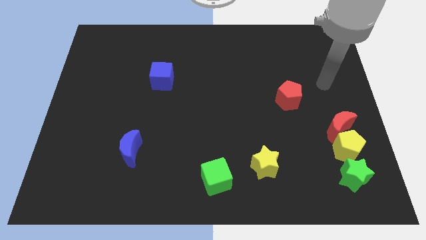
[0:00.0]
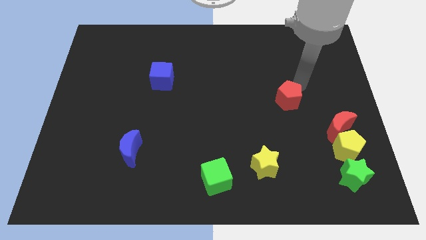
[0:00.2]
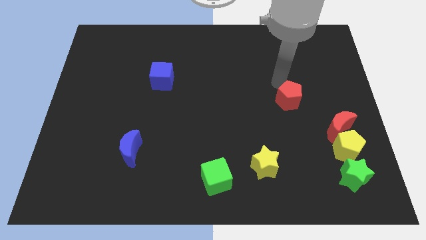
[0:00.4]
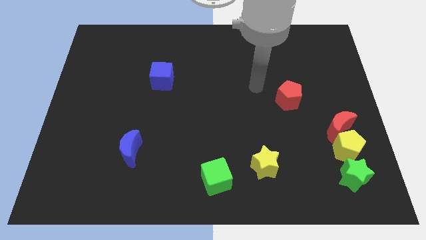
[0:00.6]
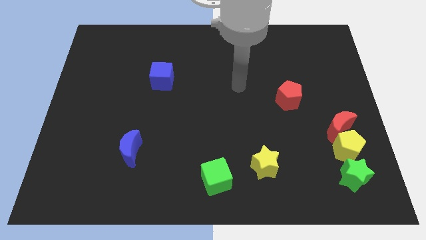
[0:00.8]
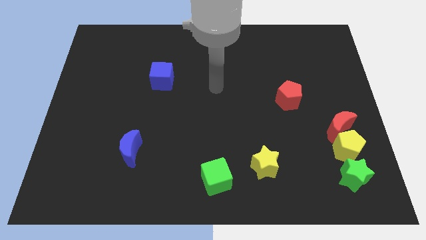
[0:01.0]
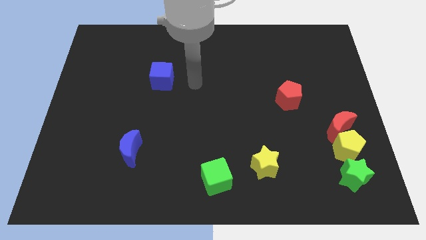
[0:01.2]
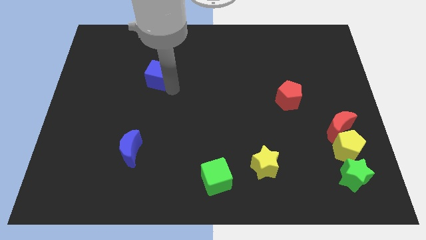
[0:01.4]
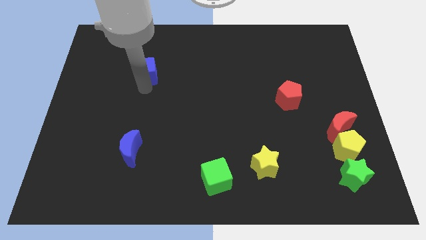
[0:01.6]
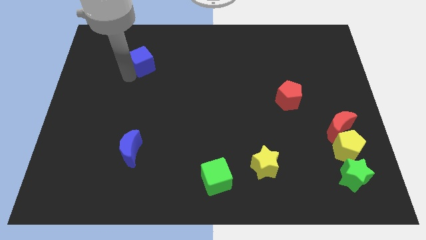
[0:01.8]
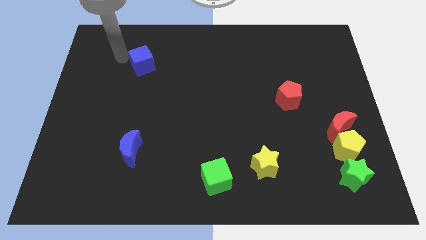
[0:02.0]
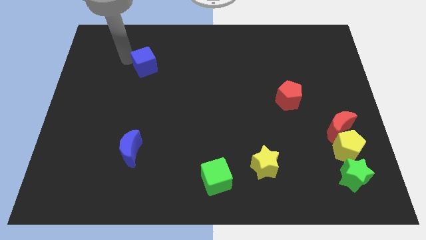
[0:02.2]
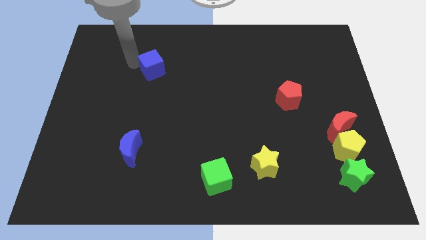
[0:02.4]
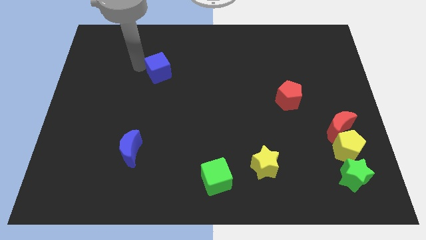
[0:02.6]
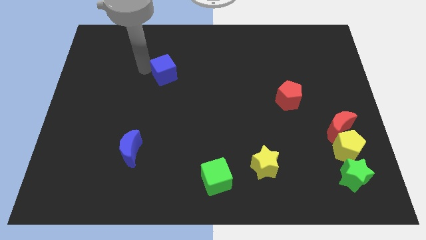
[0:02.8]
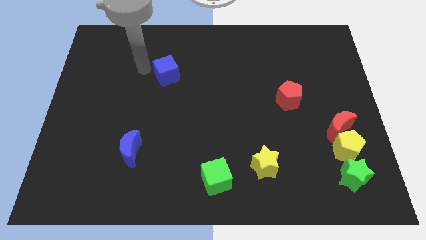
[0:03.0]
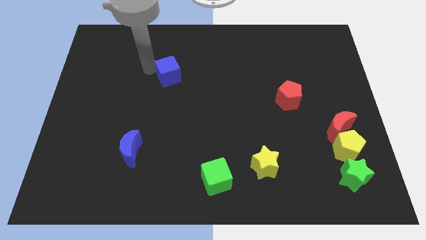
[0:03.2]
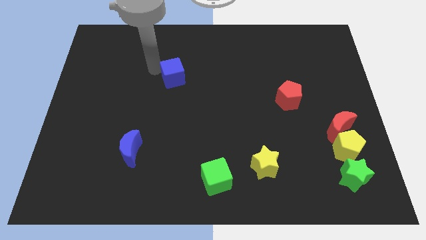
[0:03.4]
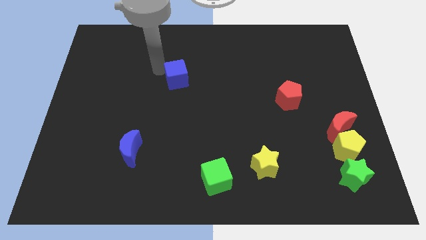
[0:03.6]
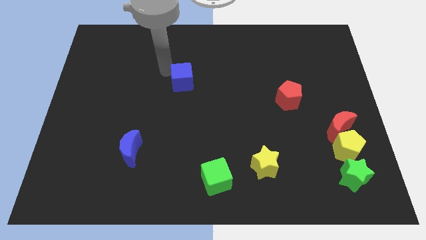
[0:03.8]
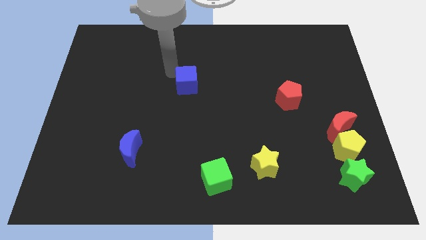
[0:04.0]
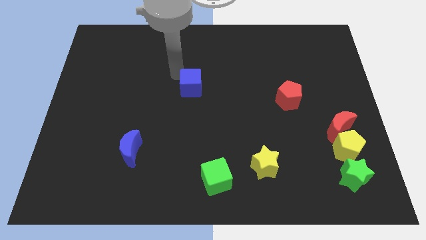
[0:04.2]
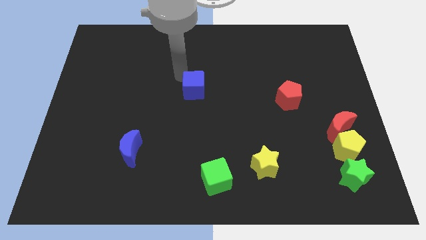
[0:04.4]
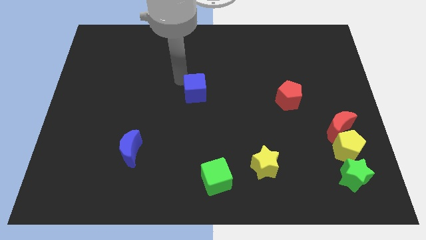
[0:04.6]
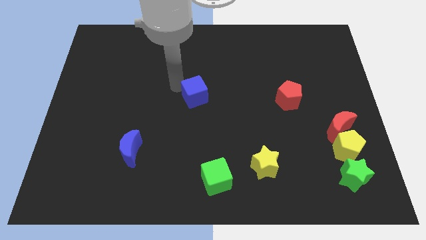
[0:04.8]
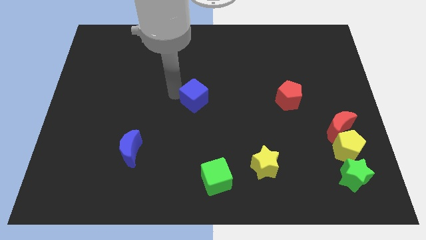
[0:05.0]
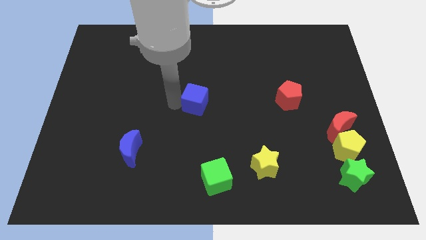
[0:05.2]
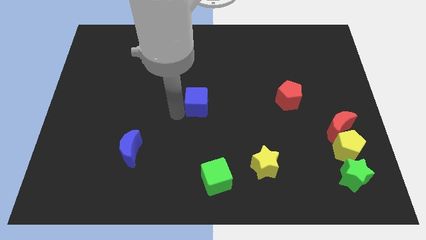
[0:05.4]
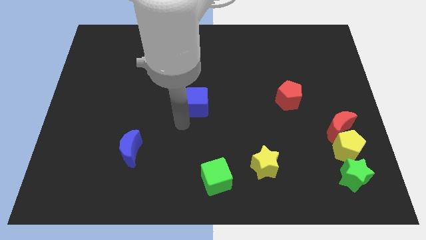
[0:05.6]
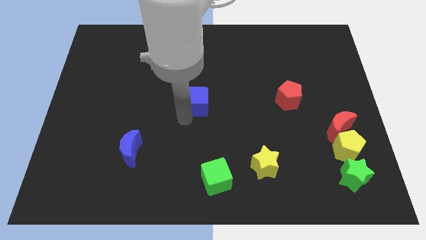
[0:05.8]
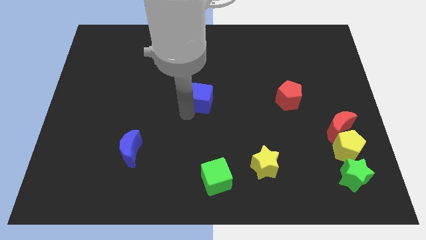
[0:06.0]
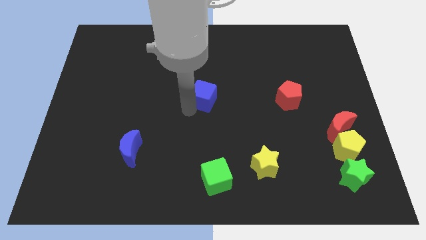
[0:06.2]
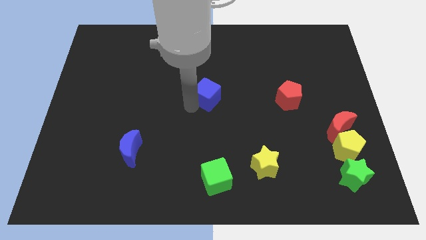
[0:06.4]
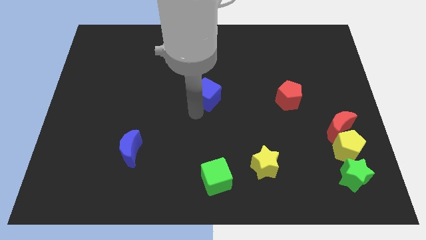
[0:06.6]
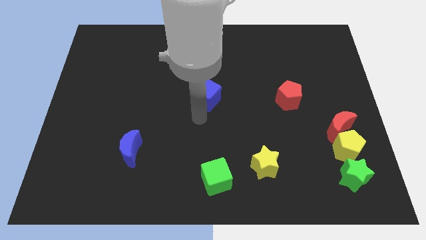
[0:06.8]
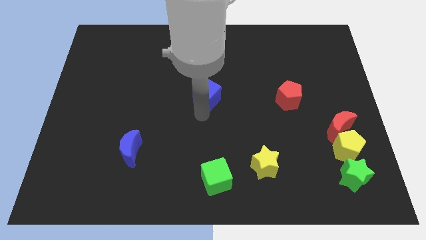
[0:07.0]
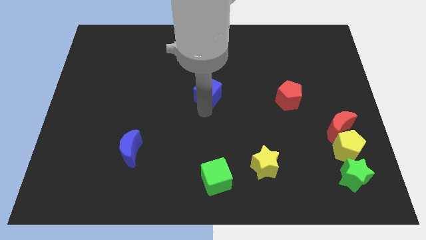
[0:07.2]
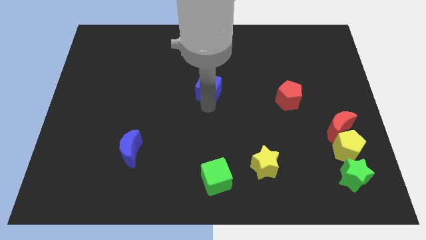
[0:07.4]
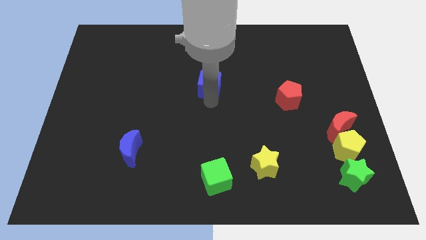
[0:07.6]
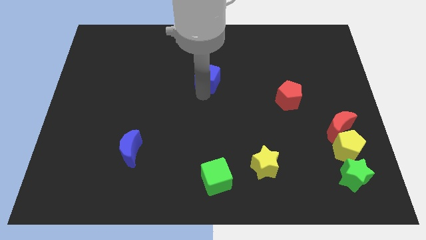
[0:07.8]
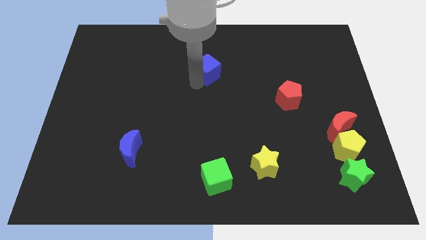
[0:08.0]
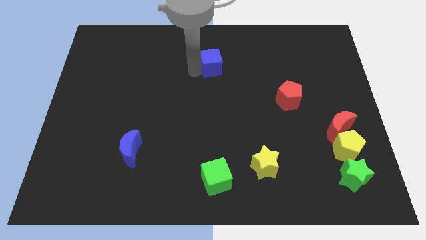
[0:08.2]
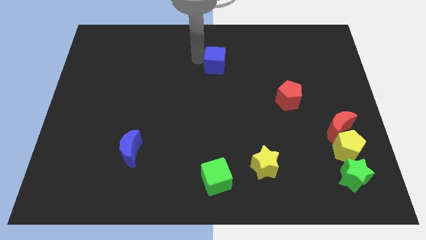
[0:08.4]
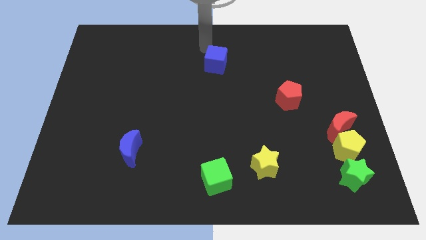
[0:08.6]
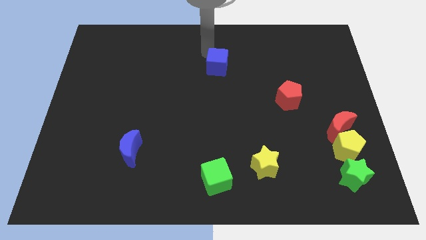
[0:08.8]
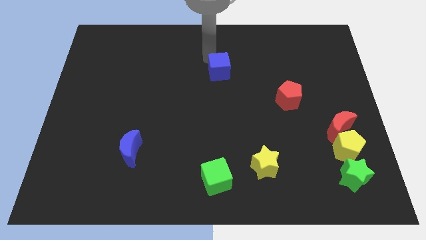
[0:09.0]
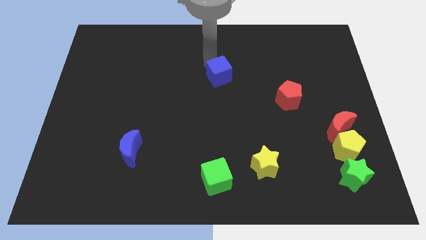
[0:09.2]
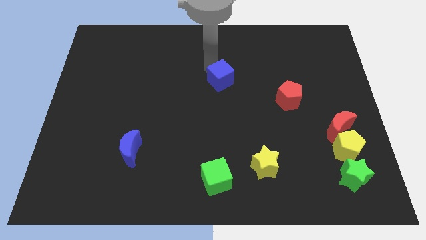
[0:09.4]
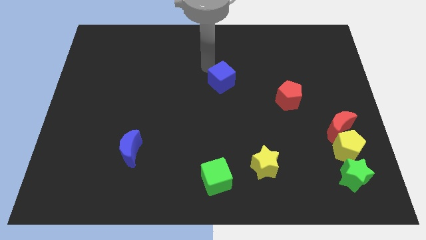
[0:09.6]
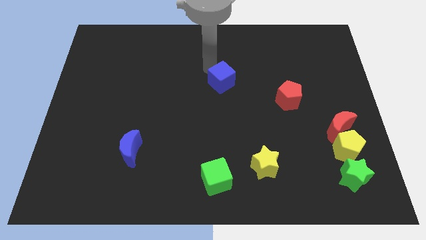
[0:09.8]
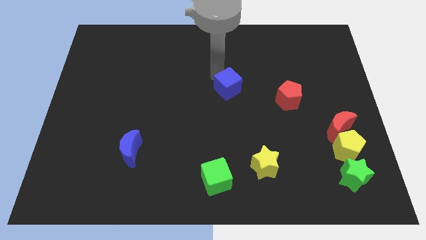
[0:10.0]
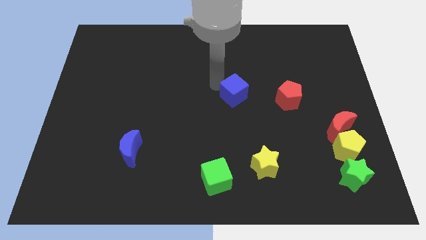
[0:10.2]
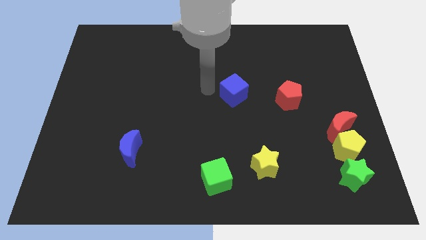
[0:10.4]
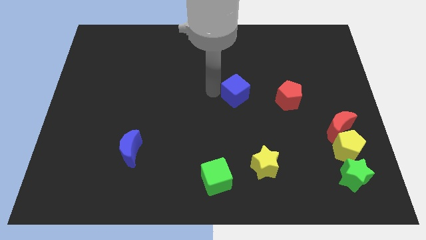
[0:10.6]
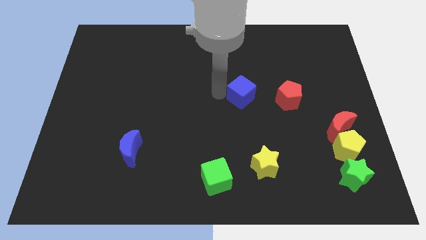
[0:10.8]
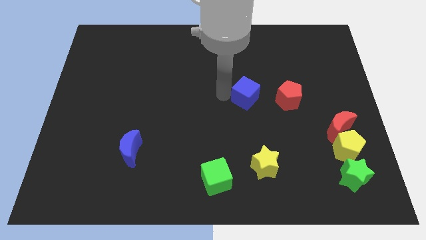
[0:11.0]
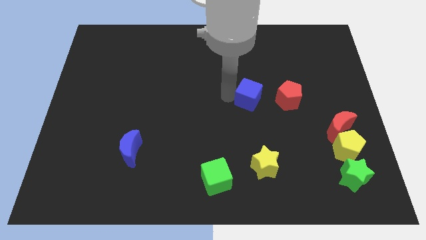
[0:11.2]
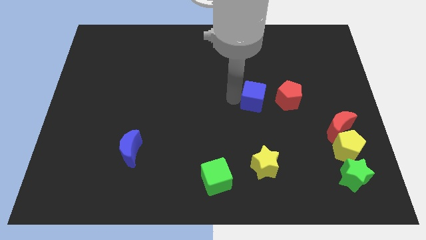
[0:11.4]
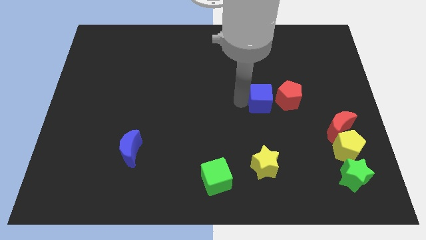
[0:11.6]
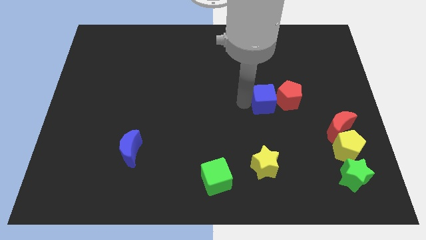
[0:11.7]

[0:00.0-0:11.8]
put the blue cube towards the red pentagon

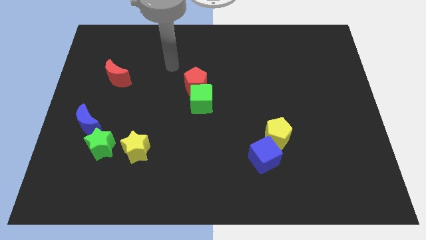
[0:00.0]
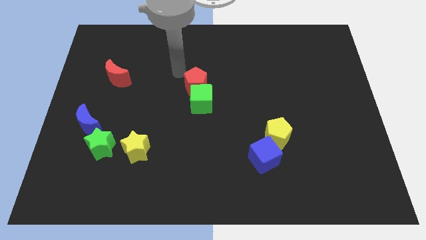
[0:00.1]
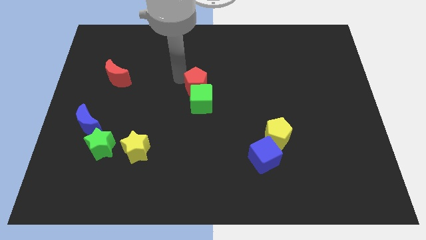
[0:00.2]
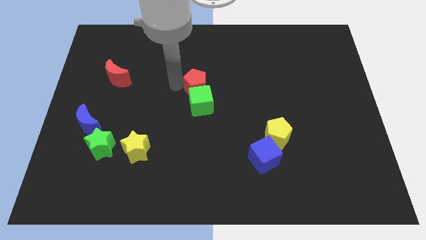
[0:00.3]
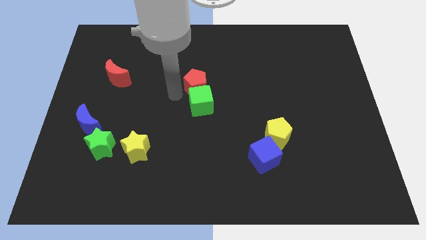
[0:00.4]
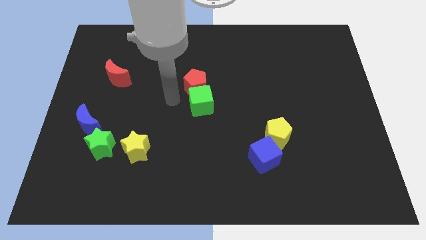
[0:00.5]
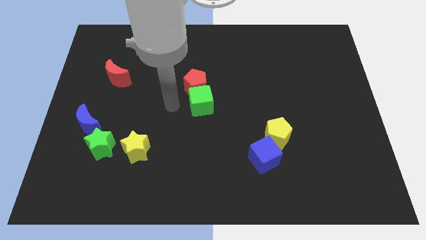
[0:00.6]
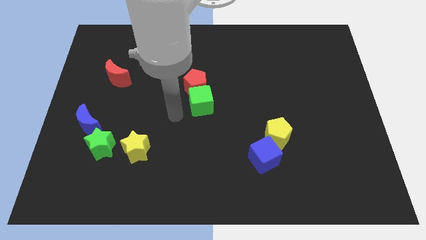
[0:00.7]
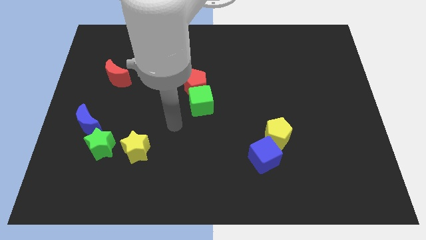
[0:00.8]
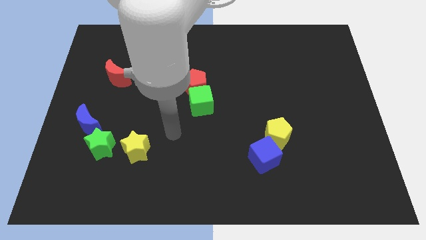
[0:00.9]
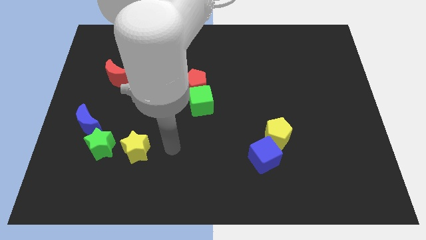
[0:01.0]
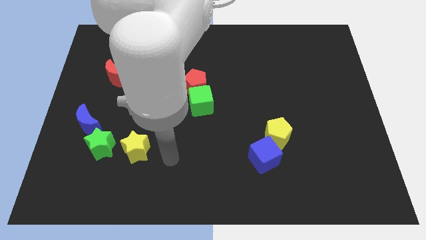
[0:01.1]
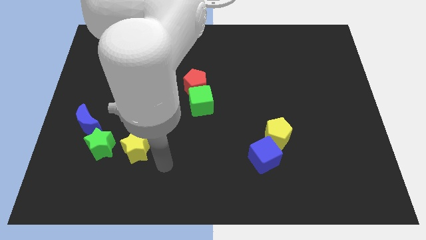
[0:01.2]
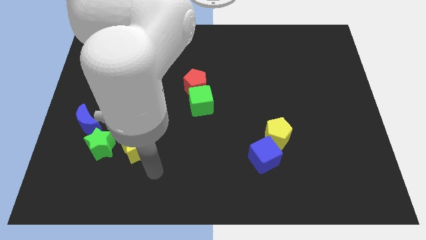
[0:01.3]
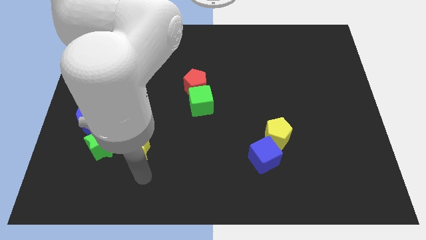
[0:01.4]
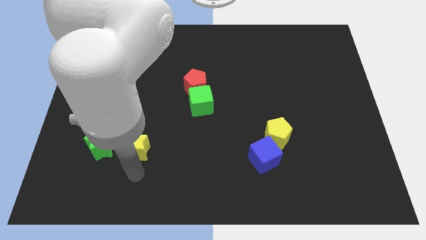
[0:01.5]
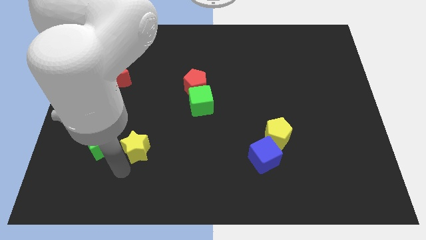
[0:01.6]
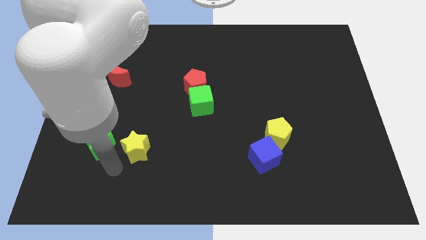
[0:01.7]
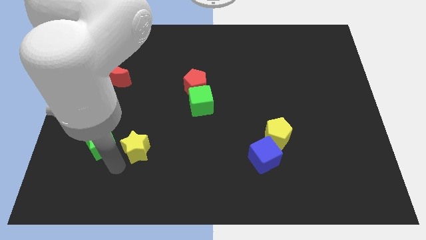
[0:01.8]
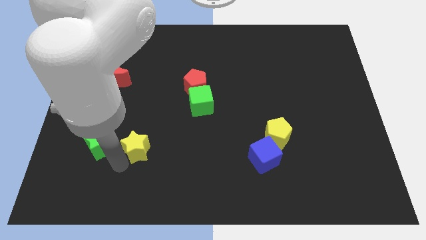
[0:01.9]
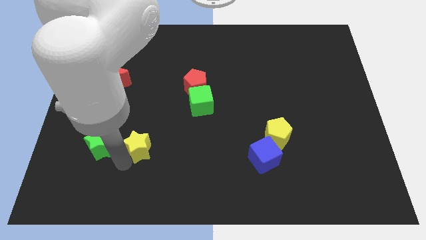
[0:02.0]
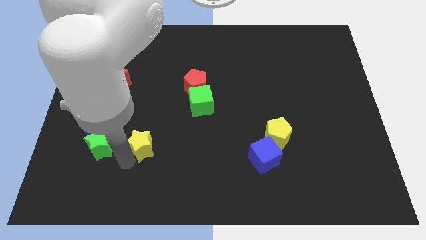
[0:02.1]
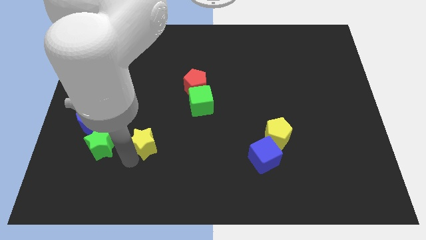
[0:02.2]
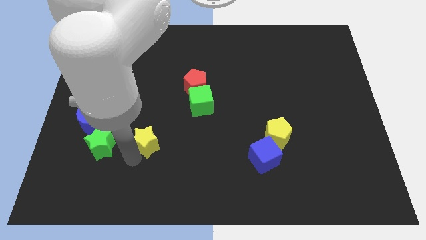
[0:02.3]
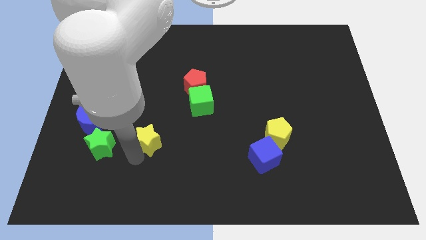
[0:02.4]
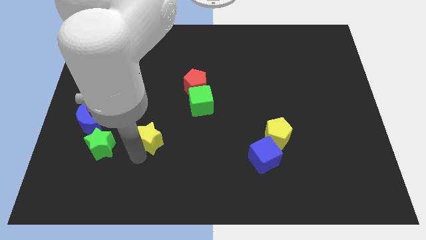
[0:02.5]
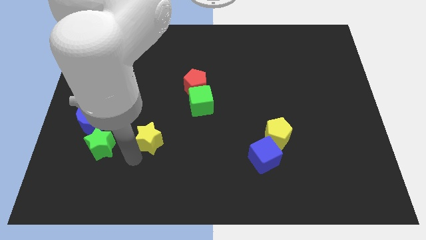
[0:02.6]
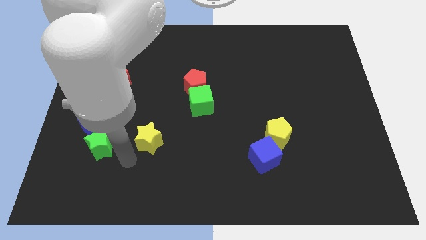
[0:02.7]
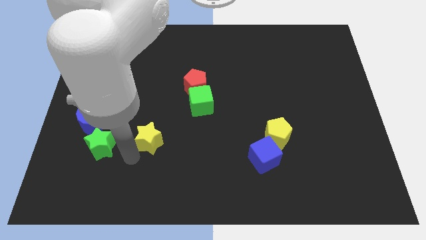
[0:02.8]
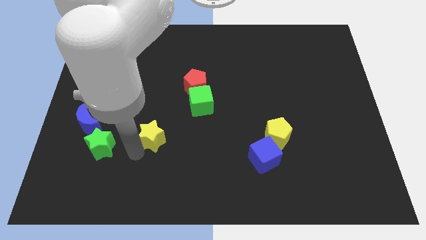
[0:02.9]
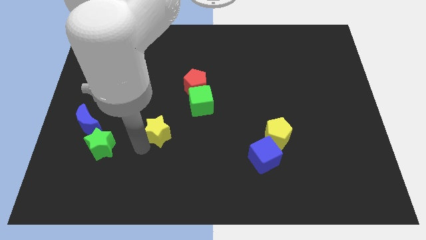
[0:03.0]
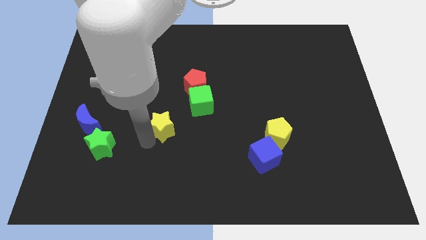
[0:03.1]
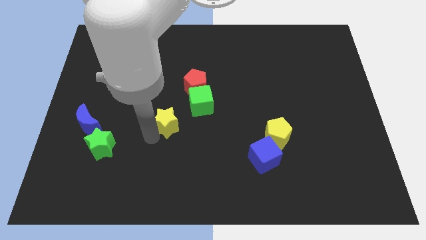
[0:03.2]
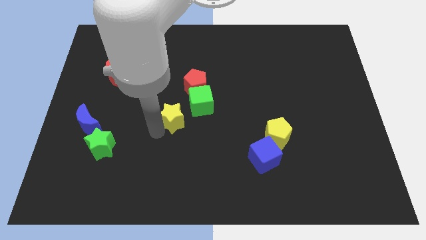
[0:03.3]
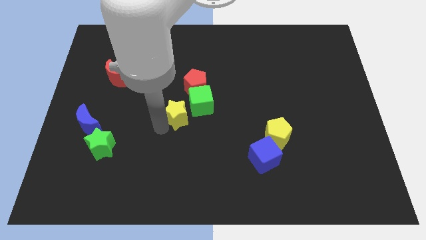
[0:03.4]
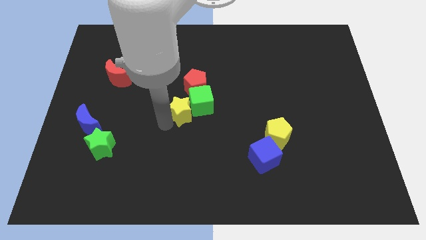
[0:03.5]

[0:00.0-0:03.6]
push the yellow star towards the green cube
